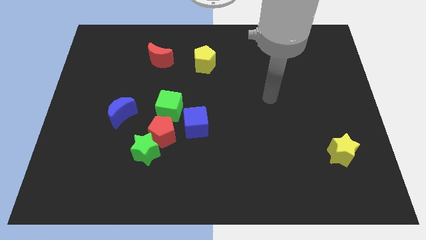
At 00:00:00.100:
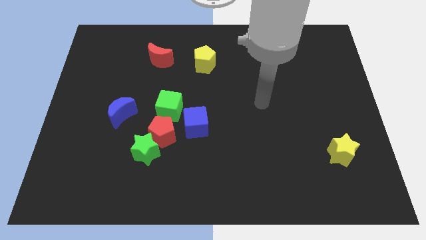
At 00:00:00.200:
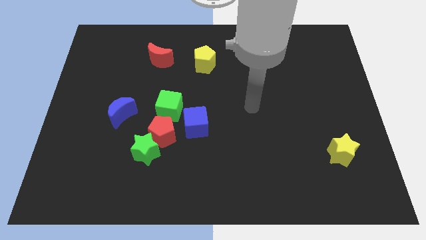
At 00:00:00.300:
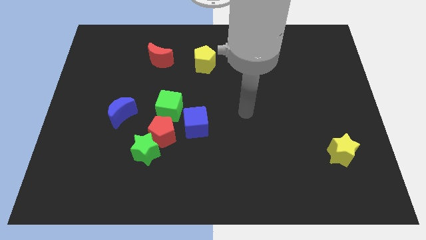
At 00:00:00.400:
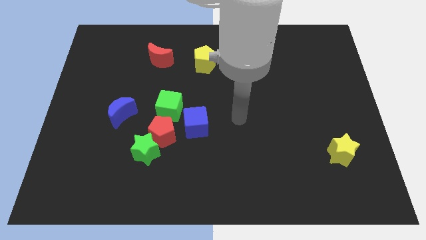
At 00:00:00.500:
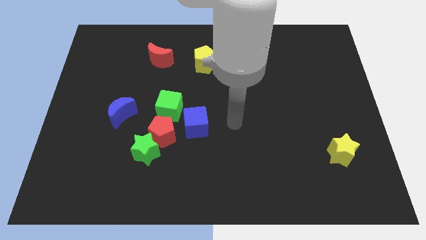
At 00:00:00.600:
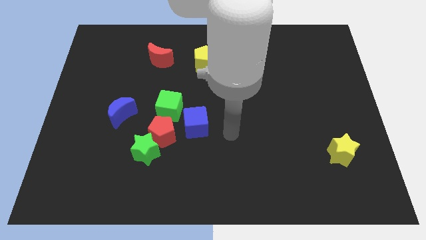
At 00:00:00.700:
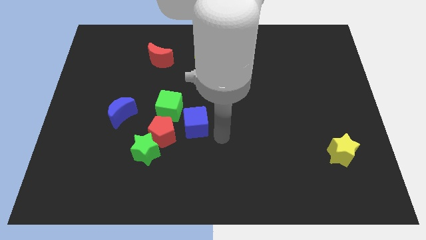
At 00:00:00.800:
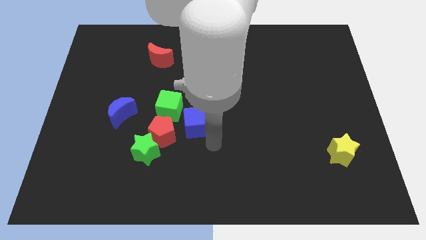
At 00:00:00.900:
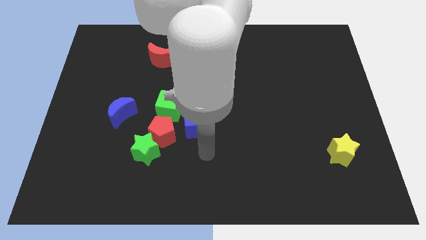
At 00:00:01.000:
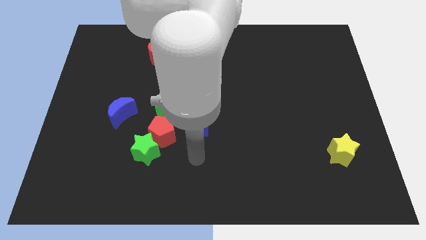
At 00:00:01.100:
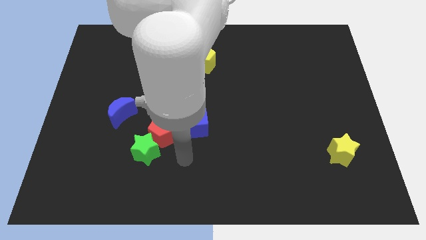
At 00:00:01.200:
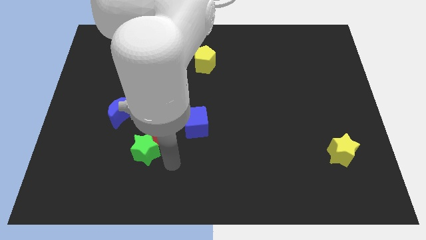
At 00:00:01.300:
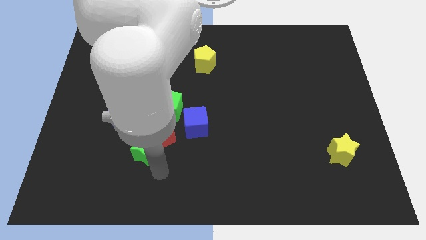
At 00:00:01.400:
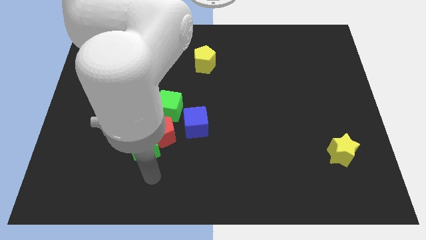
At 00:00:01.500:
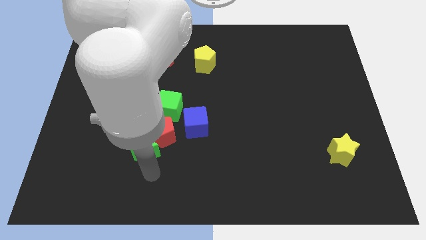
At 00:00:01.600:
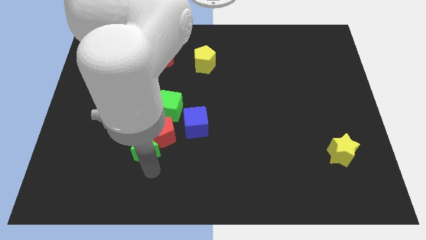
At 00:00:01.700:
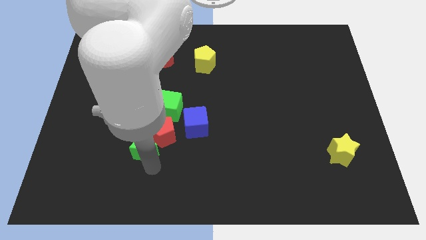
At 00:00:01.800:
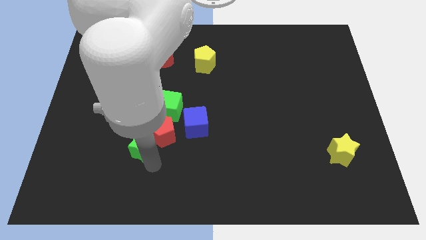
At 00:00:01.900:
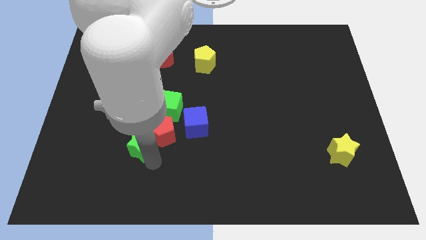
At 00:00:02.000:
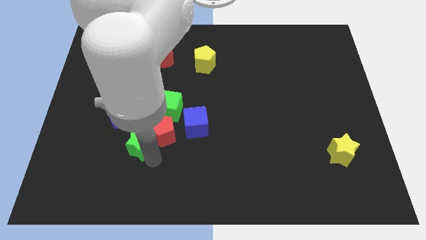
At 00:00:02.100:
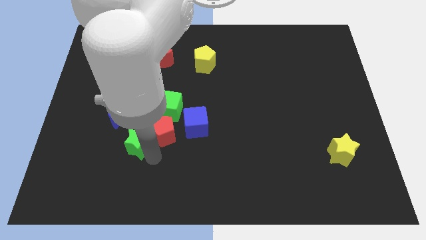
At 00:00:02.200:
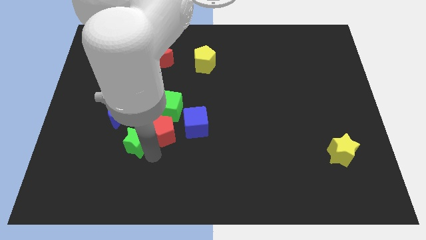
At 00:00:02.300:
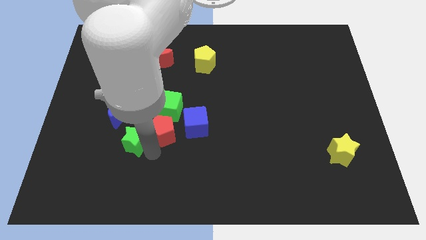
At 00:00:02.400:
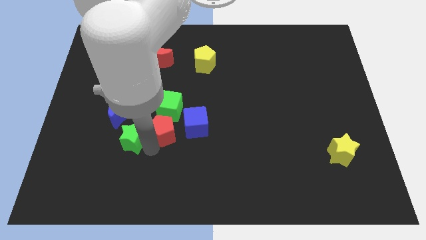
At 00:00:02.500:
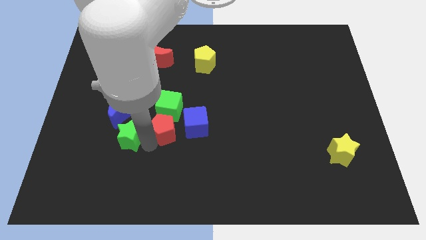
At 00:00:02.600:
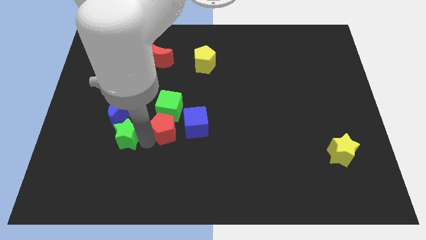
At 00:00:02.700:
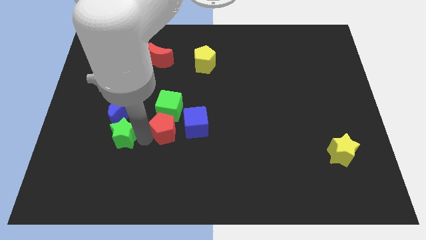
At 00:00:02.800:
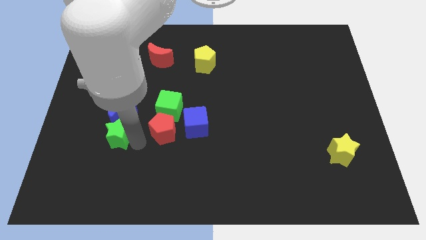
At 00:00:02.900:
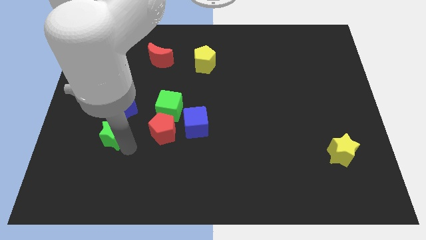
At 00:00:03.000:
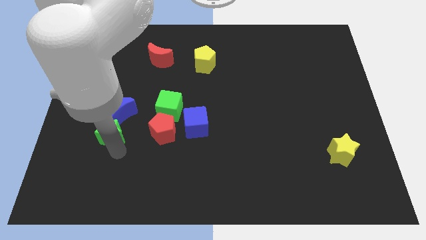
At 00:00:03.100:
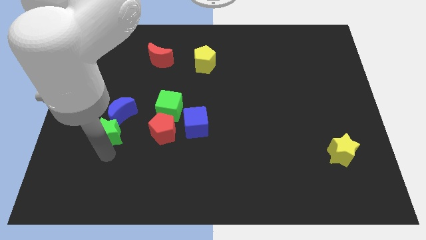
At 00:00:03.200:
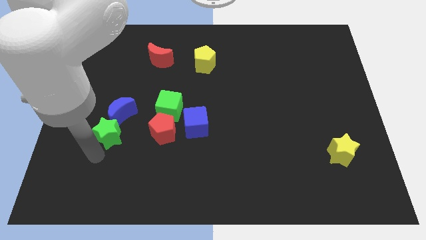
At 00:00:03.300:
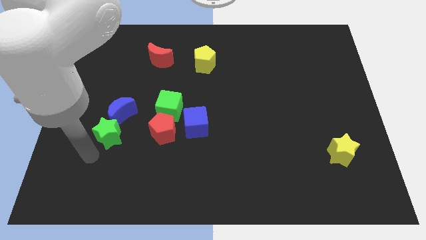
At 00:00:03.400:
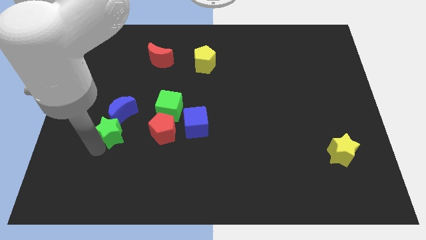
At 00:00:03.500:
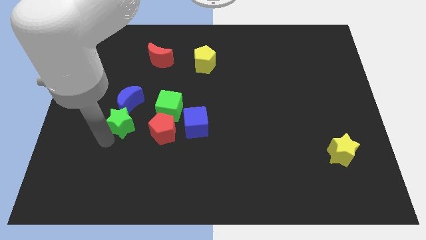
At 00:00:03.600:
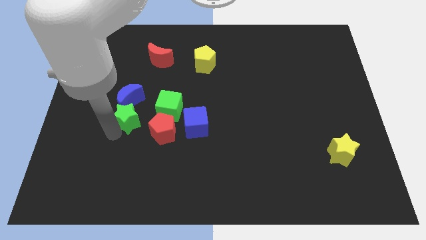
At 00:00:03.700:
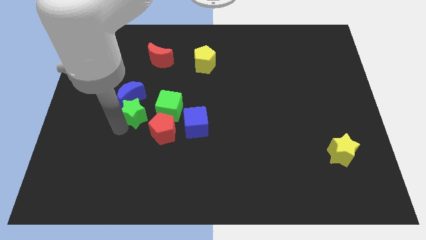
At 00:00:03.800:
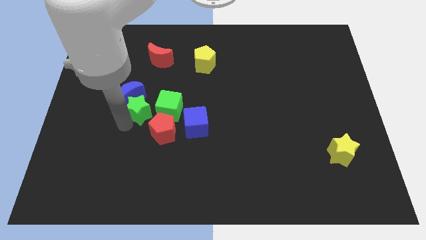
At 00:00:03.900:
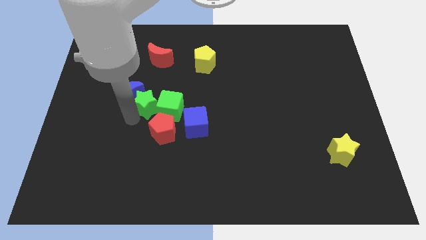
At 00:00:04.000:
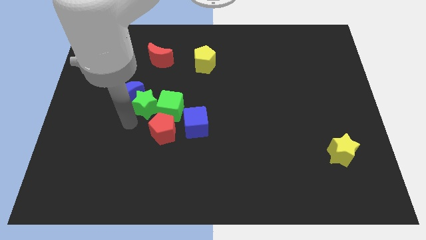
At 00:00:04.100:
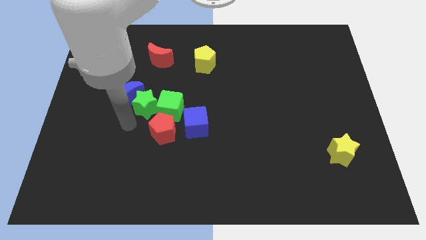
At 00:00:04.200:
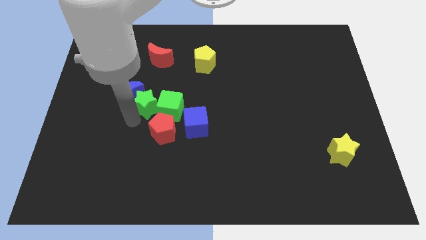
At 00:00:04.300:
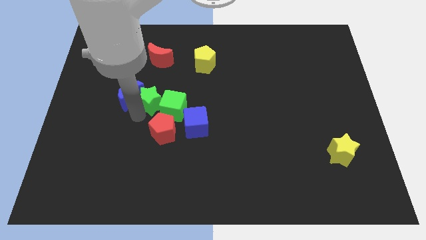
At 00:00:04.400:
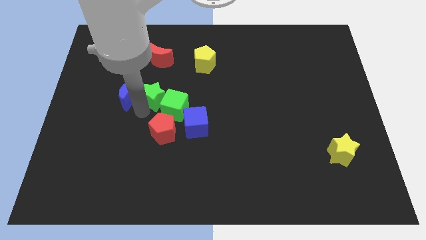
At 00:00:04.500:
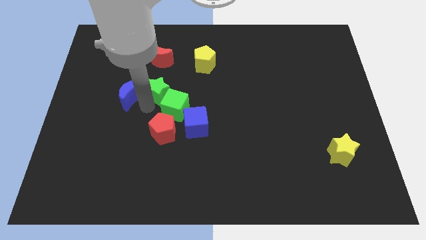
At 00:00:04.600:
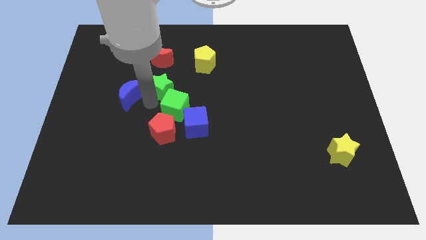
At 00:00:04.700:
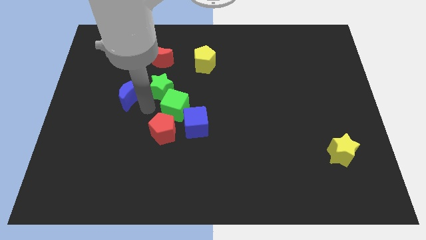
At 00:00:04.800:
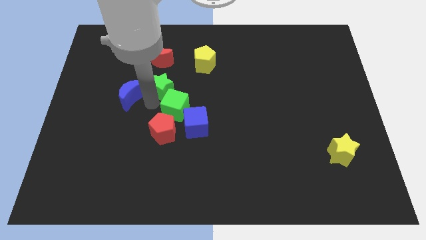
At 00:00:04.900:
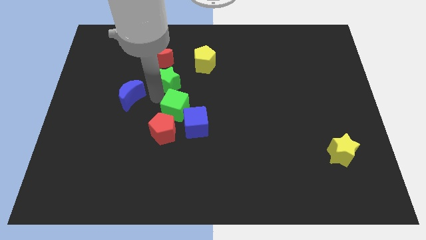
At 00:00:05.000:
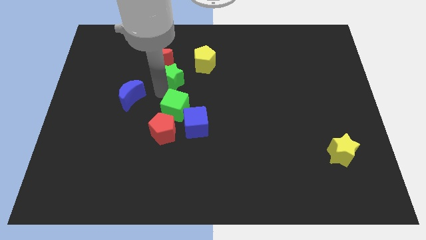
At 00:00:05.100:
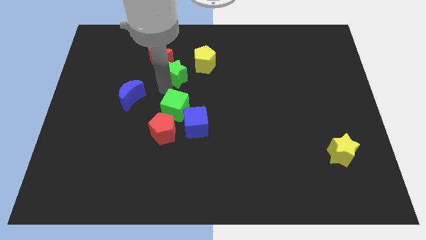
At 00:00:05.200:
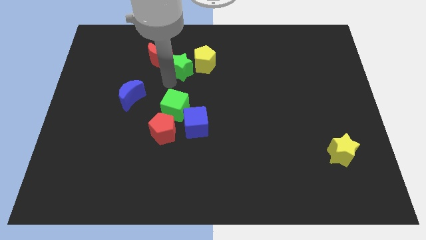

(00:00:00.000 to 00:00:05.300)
put the green star close to the yellow pentagon

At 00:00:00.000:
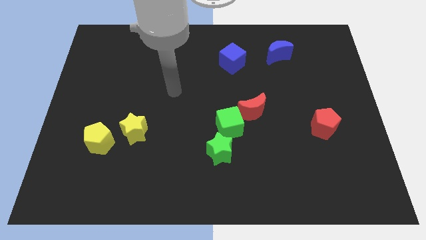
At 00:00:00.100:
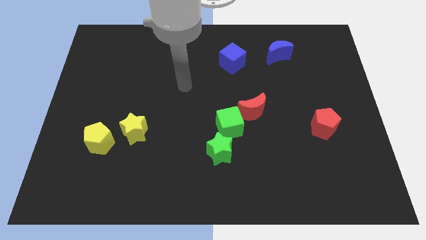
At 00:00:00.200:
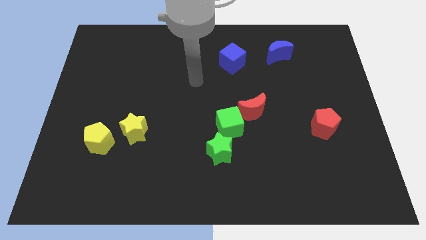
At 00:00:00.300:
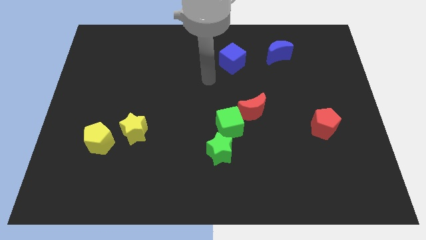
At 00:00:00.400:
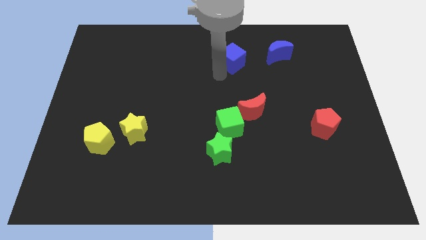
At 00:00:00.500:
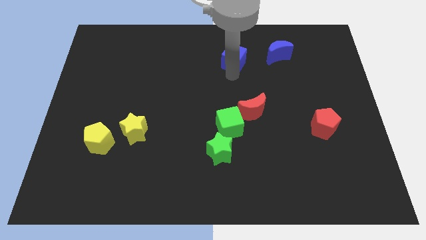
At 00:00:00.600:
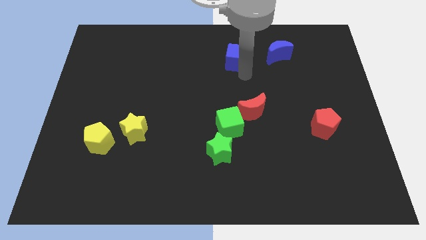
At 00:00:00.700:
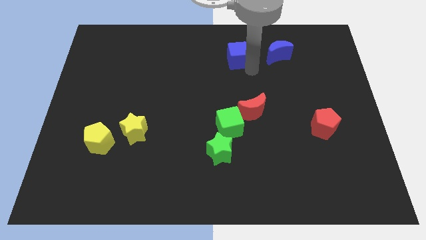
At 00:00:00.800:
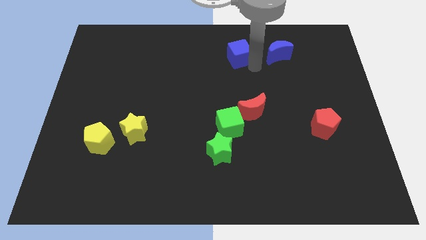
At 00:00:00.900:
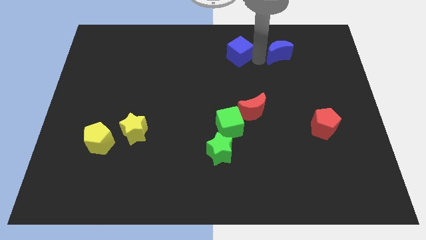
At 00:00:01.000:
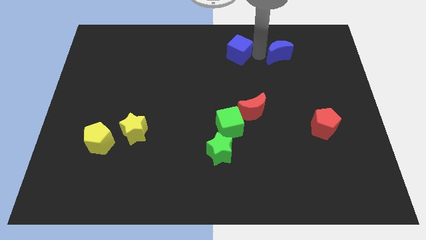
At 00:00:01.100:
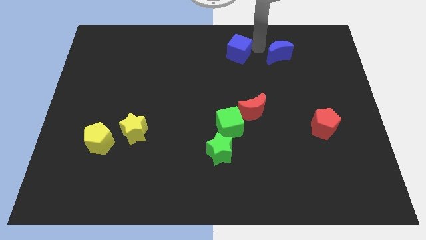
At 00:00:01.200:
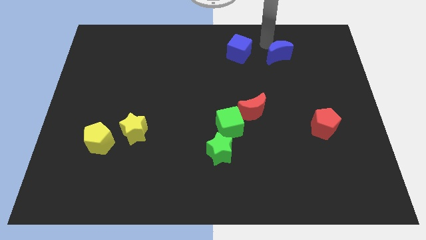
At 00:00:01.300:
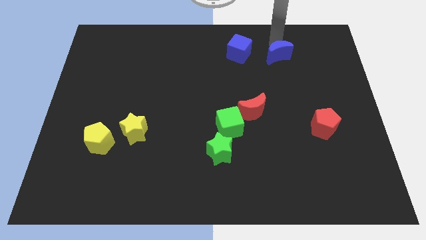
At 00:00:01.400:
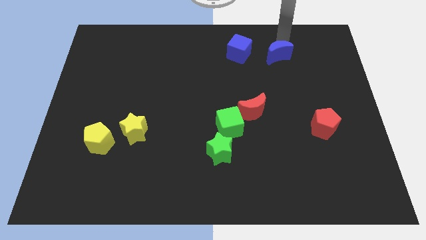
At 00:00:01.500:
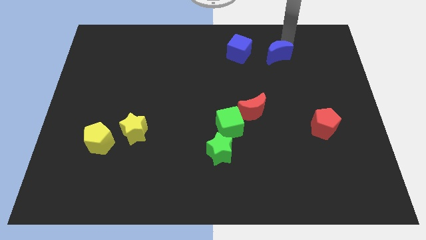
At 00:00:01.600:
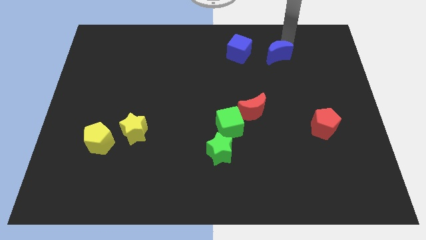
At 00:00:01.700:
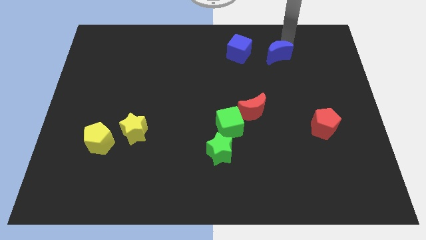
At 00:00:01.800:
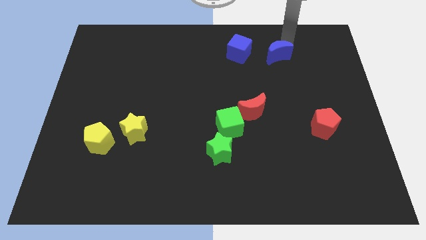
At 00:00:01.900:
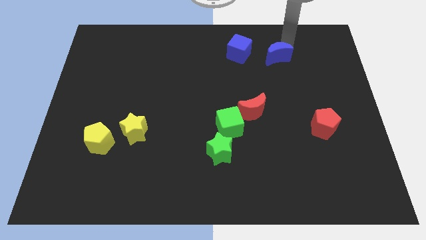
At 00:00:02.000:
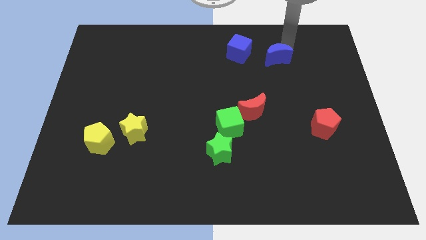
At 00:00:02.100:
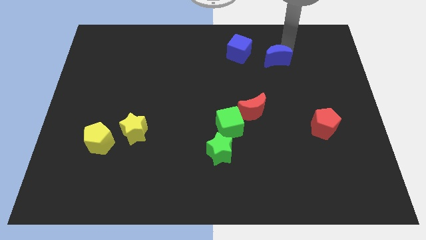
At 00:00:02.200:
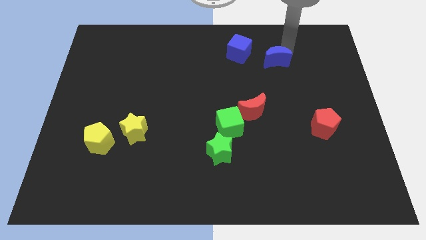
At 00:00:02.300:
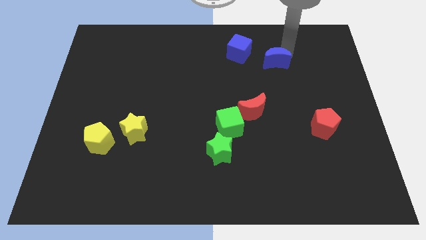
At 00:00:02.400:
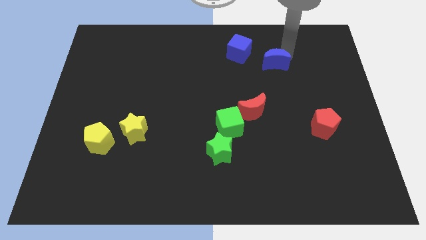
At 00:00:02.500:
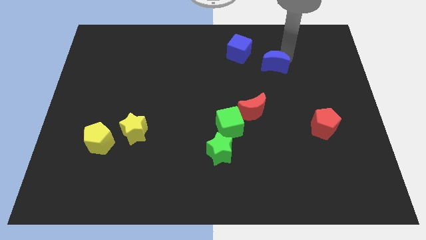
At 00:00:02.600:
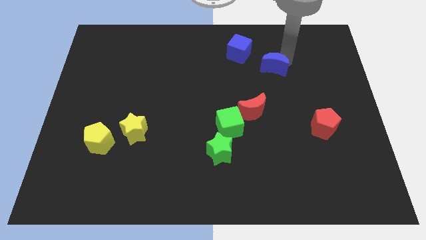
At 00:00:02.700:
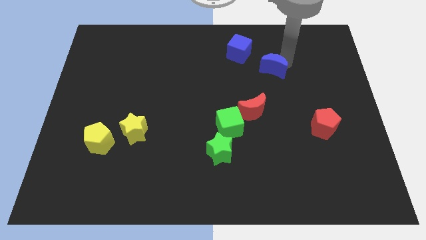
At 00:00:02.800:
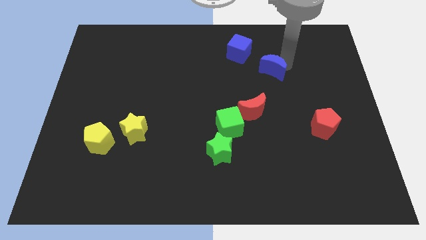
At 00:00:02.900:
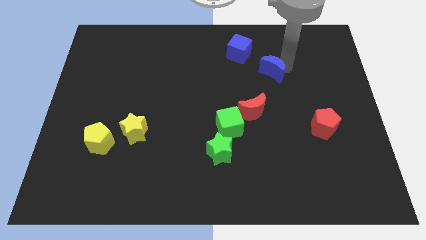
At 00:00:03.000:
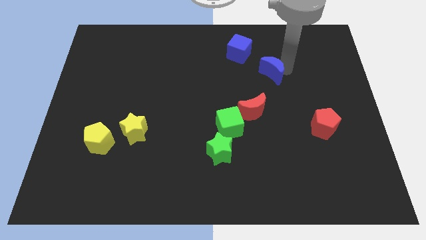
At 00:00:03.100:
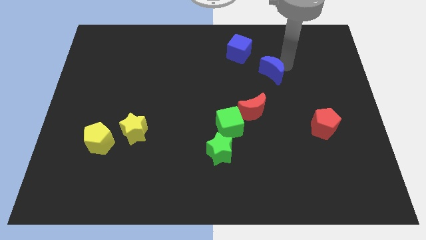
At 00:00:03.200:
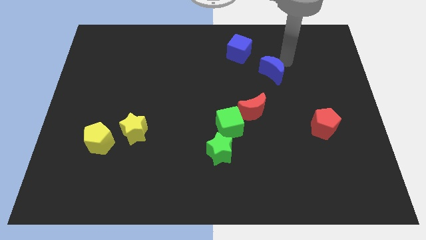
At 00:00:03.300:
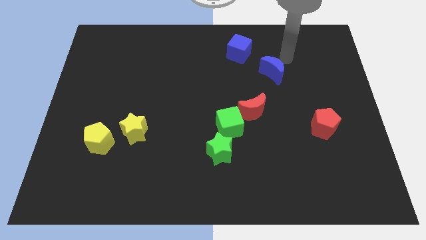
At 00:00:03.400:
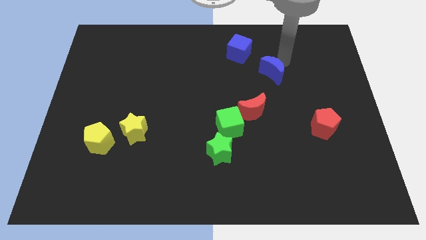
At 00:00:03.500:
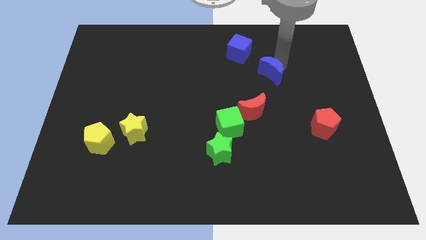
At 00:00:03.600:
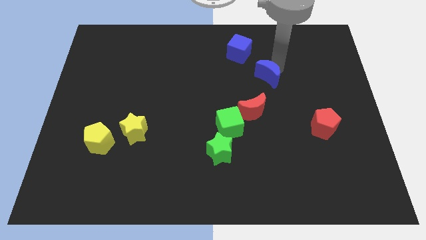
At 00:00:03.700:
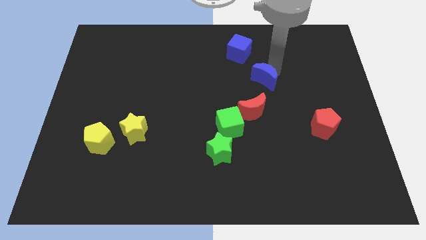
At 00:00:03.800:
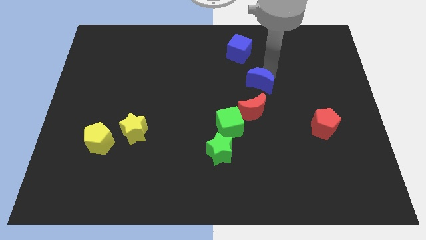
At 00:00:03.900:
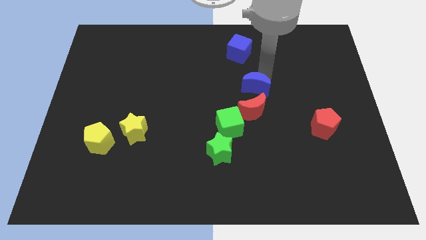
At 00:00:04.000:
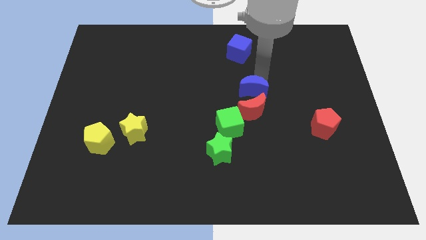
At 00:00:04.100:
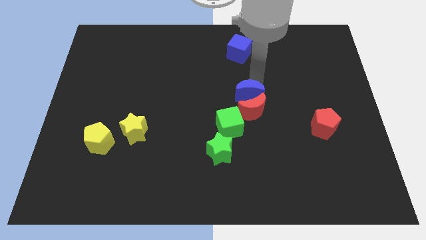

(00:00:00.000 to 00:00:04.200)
slide the blue moon towards the red moon
